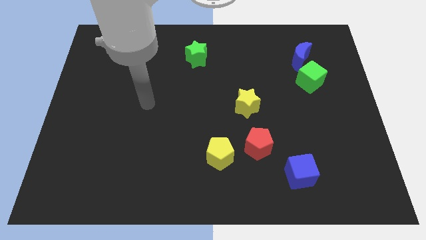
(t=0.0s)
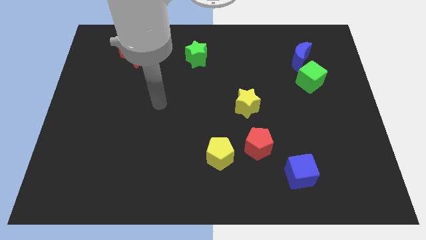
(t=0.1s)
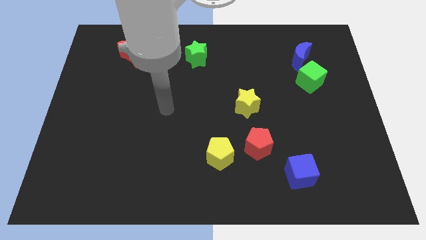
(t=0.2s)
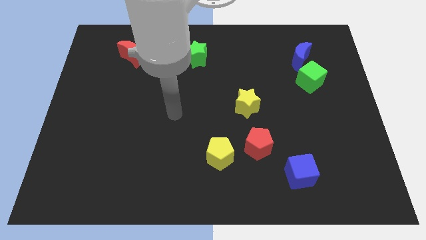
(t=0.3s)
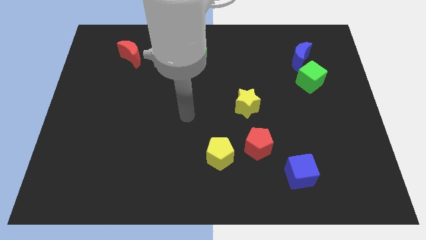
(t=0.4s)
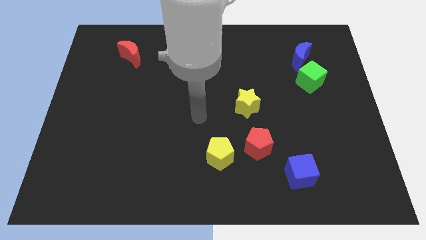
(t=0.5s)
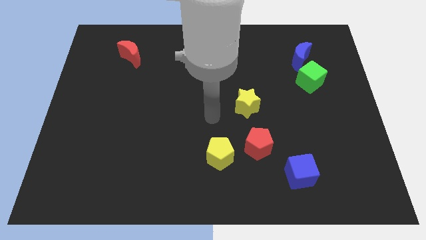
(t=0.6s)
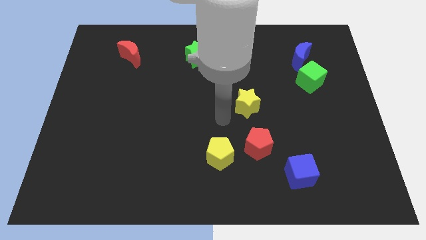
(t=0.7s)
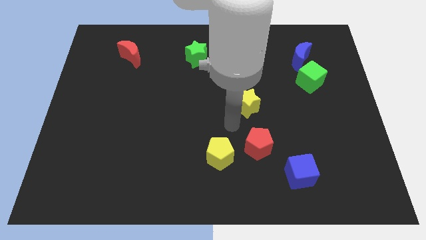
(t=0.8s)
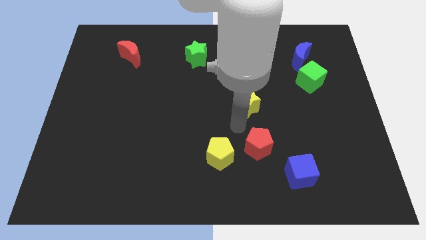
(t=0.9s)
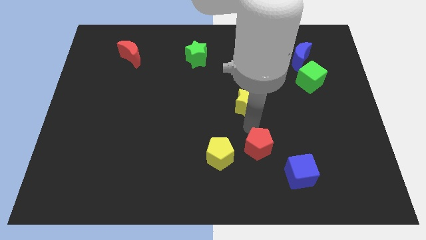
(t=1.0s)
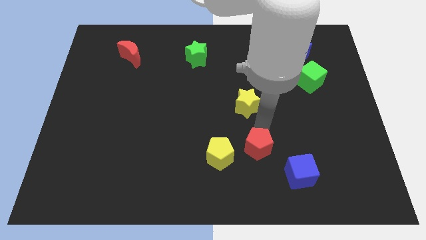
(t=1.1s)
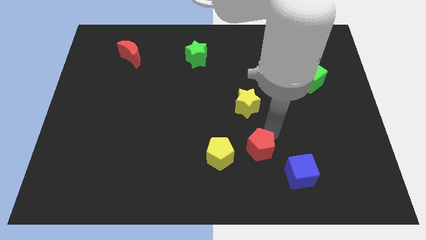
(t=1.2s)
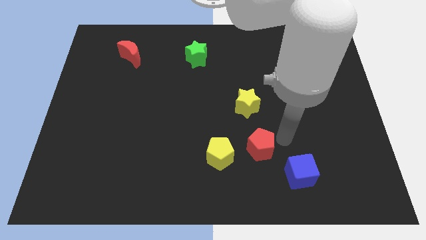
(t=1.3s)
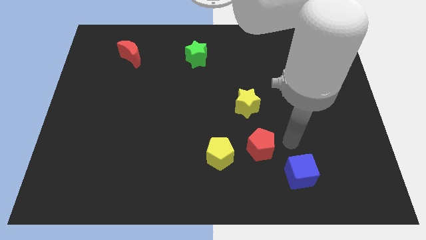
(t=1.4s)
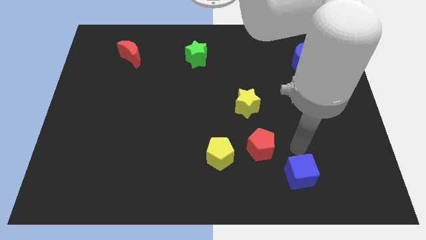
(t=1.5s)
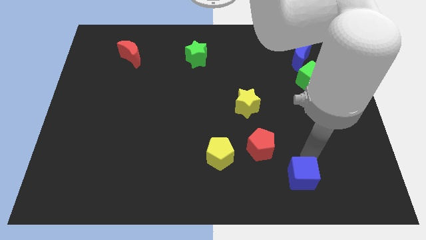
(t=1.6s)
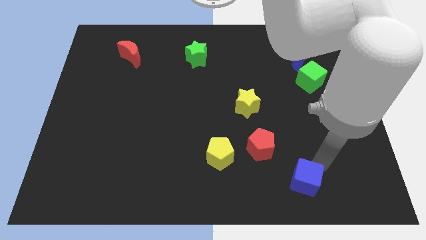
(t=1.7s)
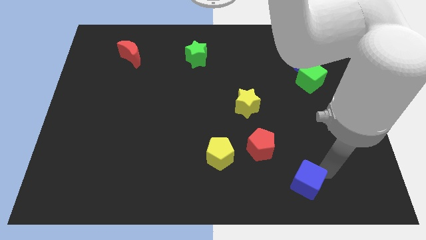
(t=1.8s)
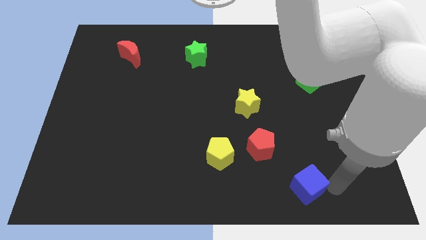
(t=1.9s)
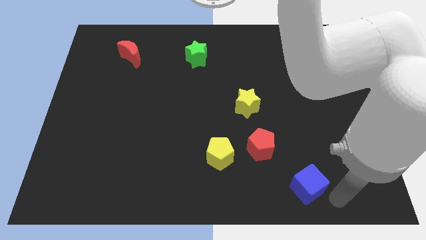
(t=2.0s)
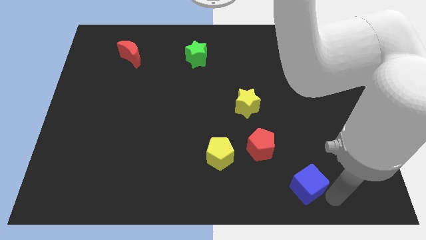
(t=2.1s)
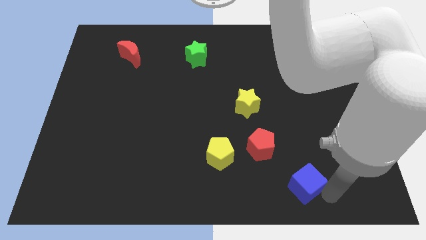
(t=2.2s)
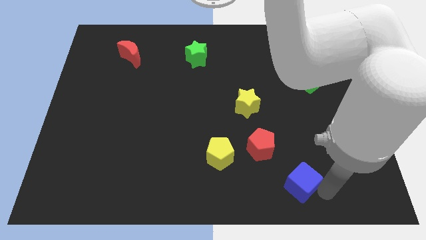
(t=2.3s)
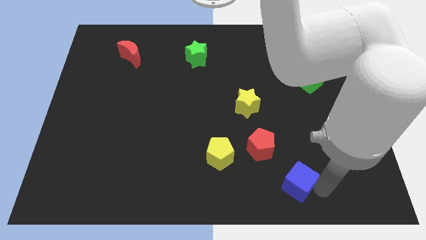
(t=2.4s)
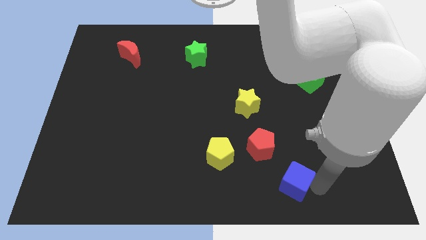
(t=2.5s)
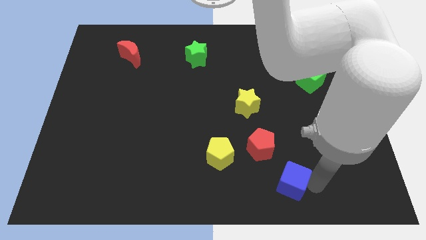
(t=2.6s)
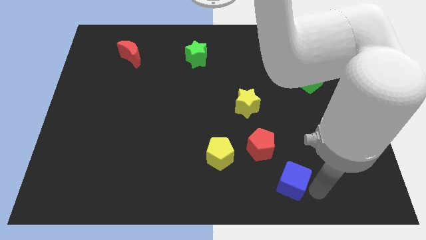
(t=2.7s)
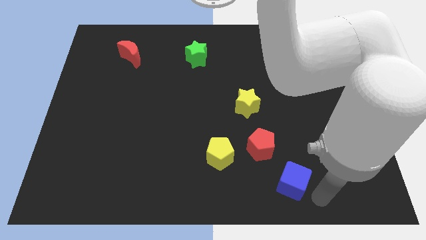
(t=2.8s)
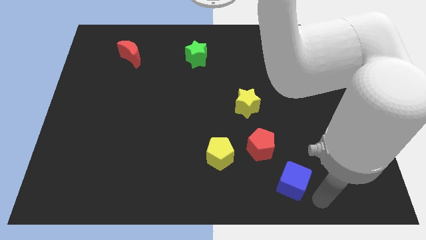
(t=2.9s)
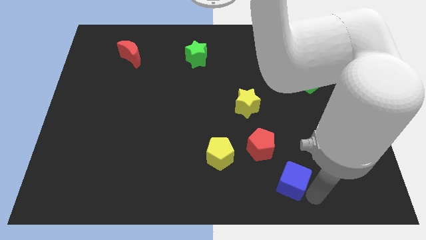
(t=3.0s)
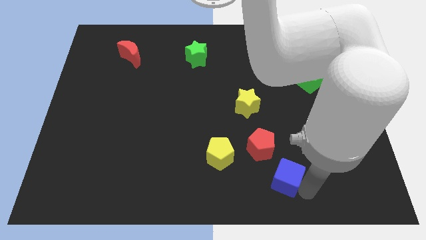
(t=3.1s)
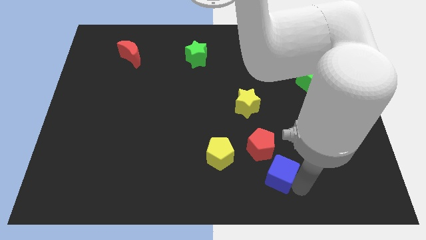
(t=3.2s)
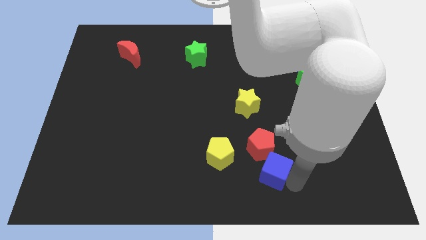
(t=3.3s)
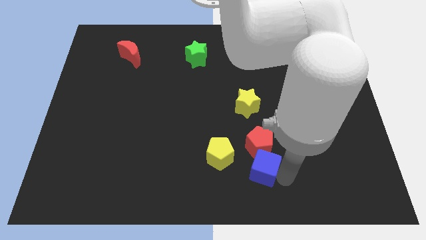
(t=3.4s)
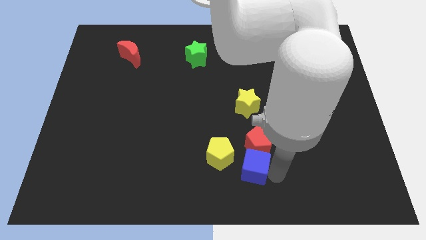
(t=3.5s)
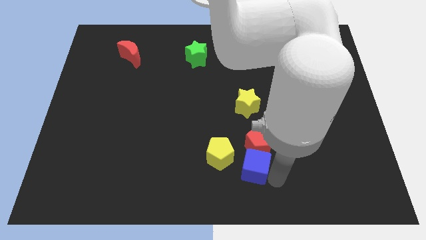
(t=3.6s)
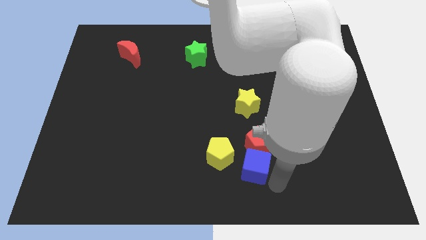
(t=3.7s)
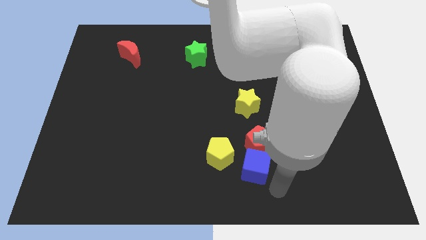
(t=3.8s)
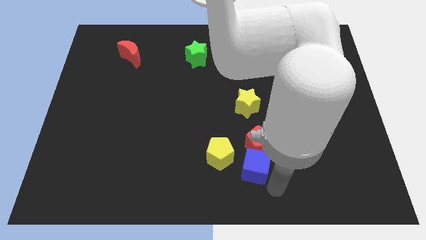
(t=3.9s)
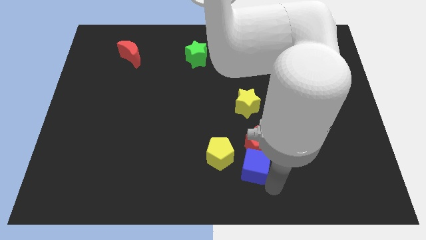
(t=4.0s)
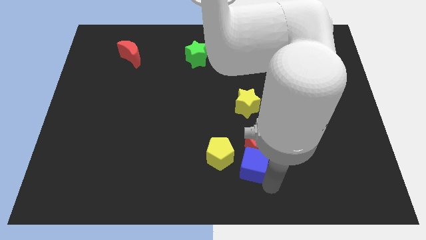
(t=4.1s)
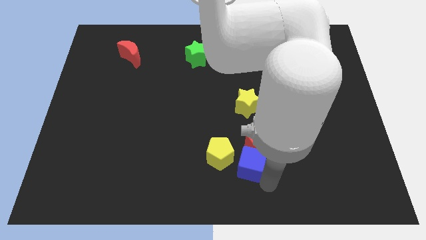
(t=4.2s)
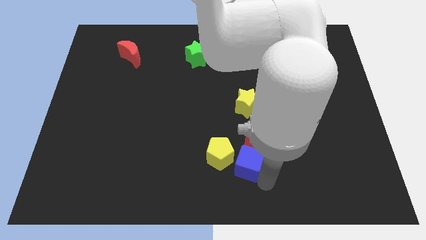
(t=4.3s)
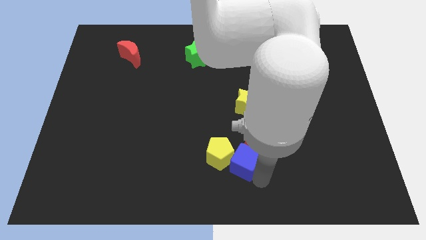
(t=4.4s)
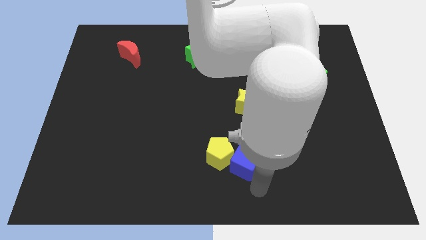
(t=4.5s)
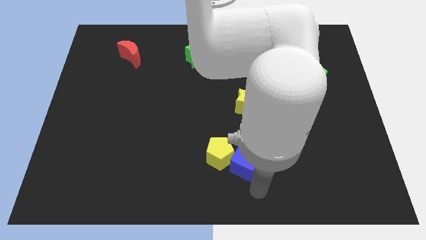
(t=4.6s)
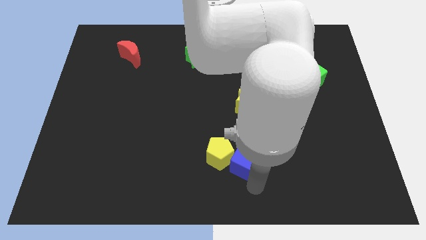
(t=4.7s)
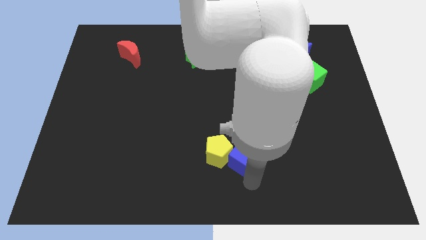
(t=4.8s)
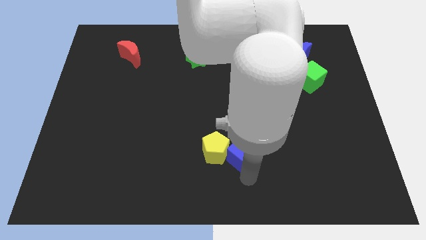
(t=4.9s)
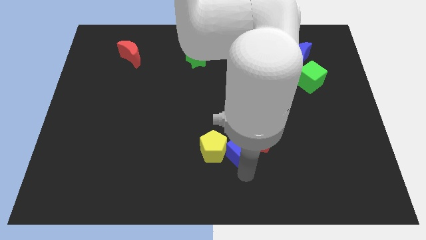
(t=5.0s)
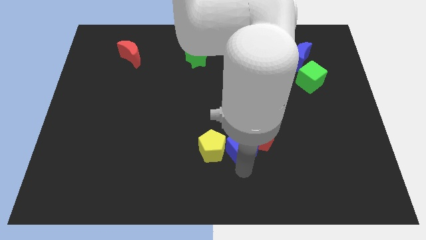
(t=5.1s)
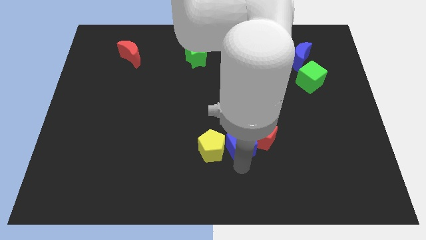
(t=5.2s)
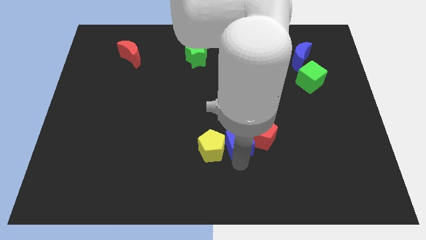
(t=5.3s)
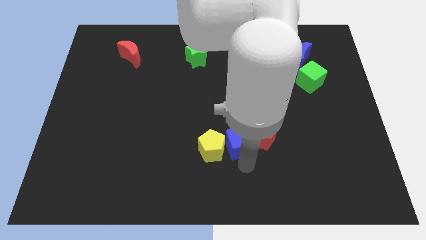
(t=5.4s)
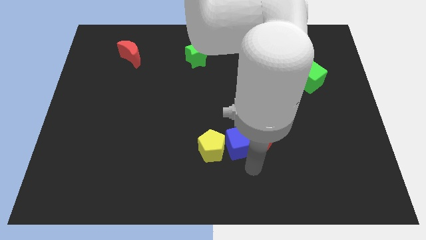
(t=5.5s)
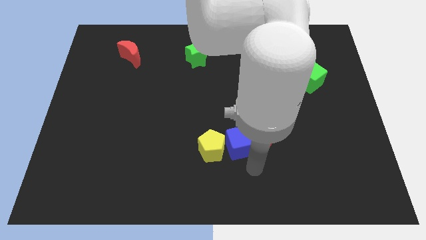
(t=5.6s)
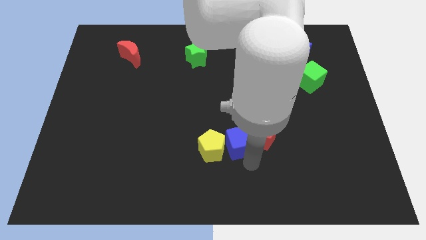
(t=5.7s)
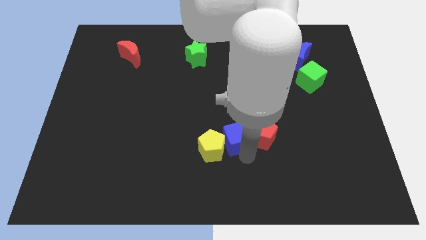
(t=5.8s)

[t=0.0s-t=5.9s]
push the blue cube to the bottom left side of the yellow star
